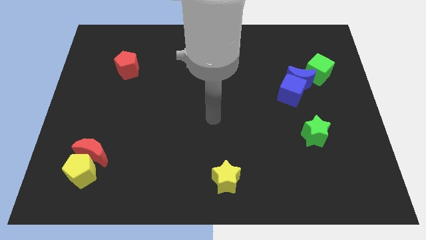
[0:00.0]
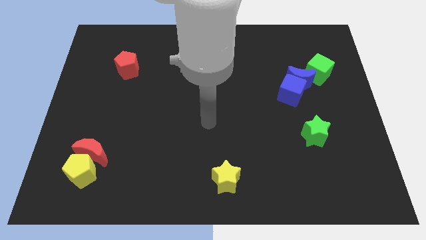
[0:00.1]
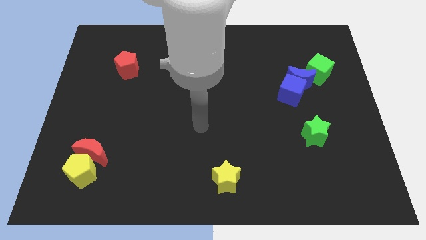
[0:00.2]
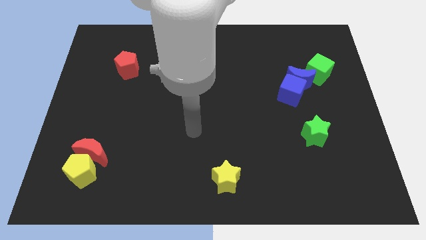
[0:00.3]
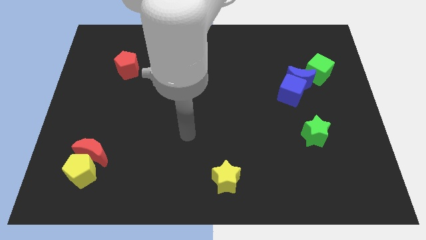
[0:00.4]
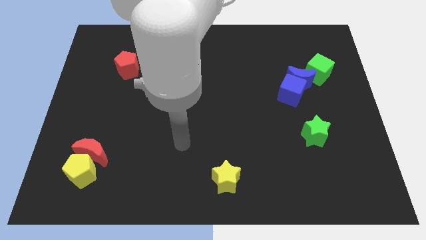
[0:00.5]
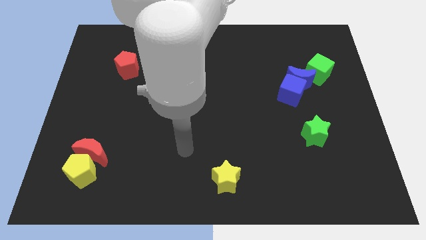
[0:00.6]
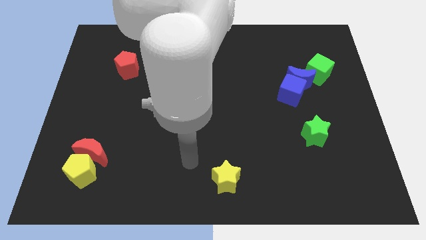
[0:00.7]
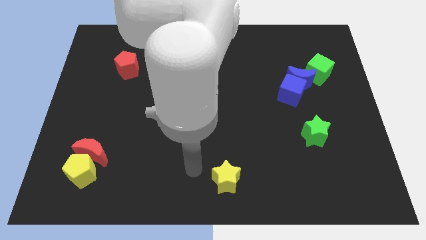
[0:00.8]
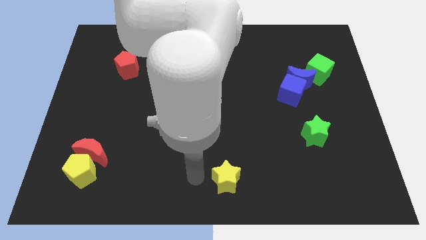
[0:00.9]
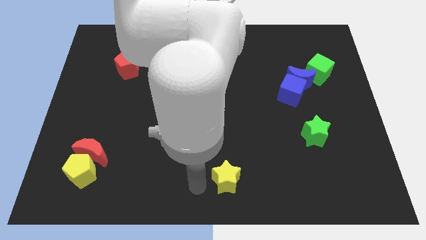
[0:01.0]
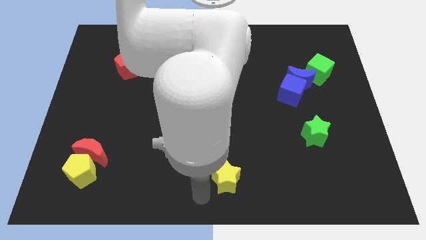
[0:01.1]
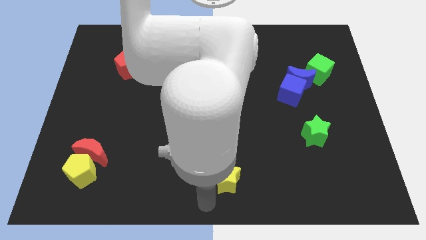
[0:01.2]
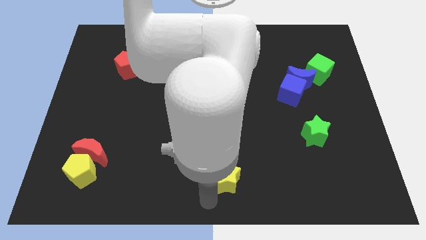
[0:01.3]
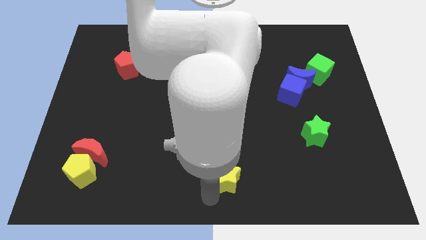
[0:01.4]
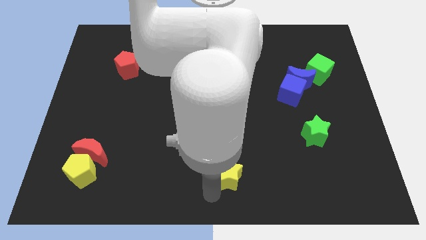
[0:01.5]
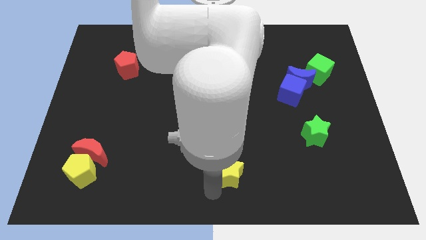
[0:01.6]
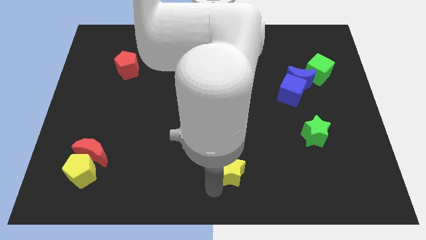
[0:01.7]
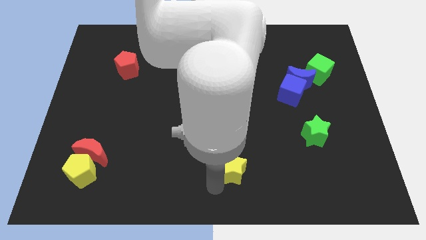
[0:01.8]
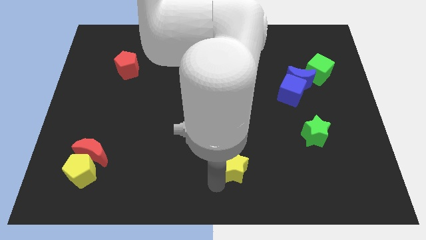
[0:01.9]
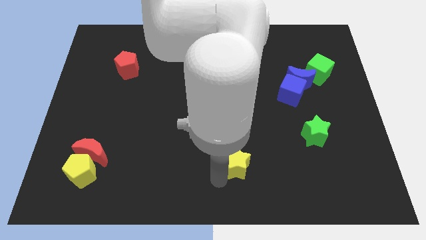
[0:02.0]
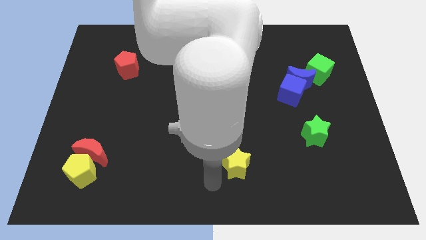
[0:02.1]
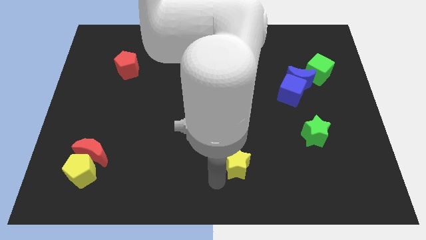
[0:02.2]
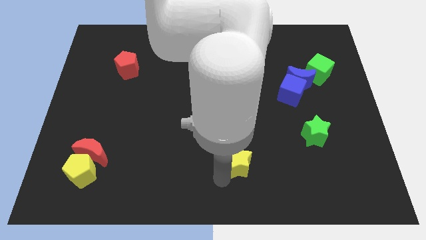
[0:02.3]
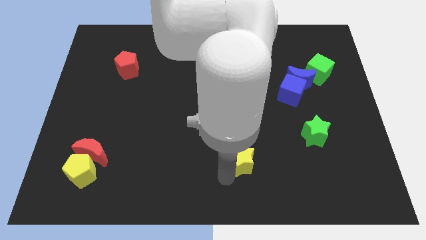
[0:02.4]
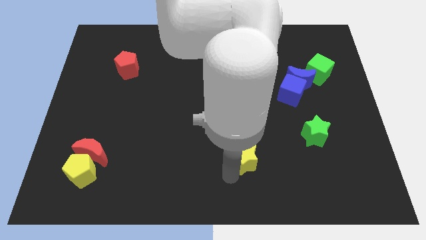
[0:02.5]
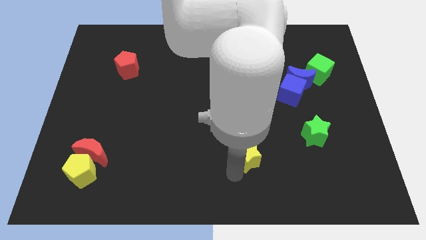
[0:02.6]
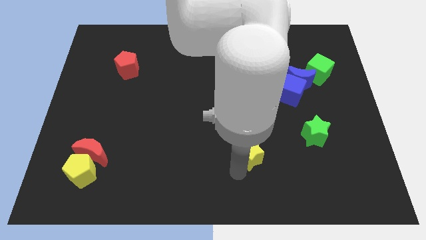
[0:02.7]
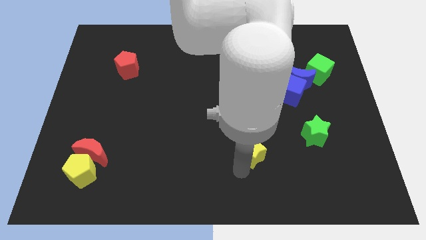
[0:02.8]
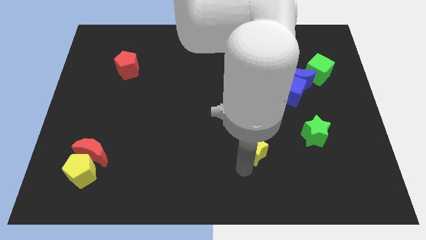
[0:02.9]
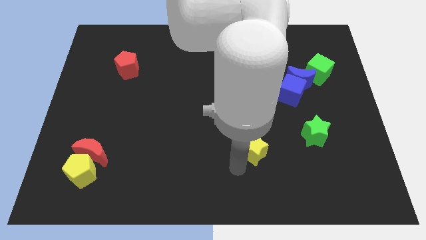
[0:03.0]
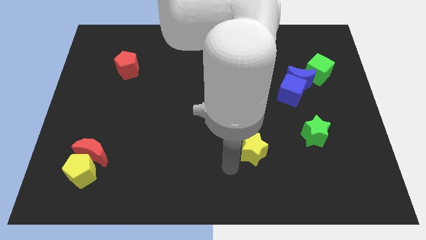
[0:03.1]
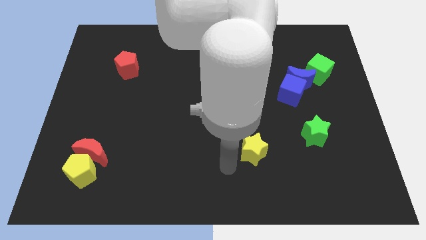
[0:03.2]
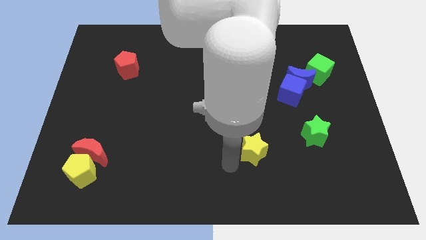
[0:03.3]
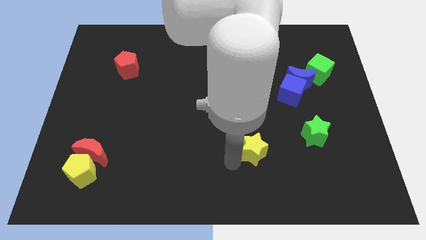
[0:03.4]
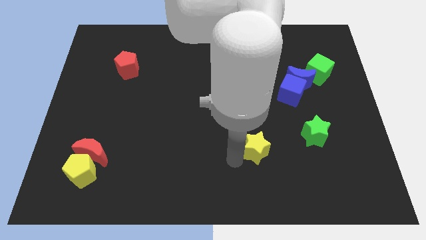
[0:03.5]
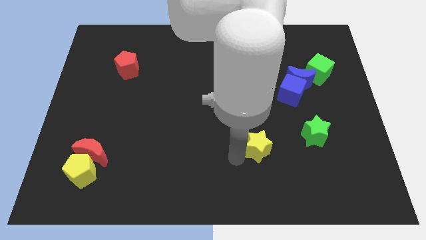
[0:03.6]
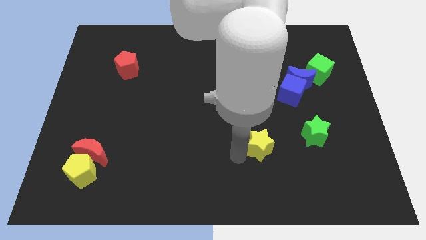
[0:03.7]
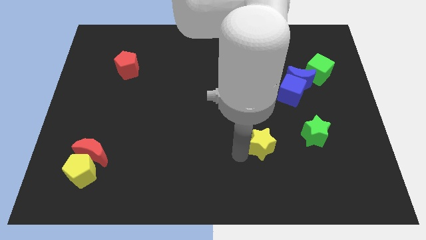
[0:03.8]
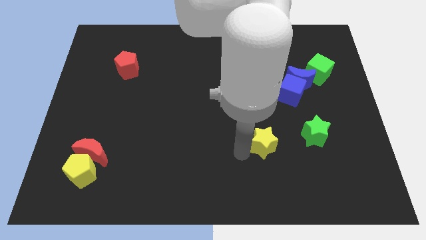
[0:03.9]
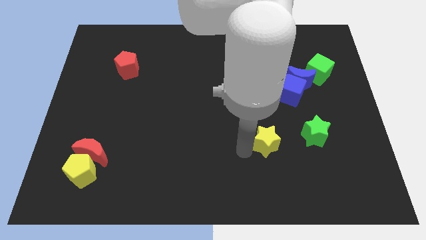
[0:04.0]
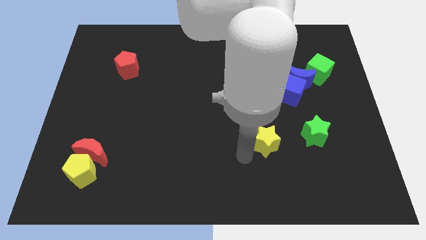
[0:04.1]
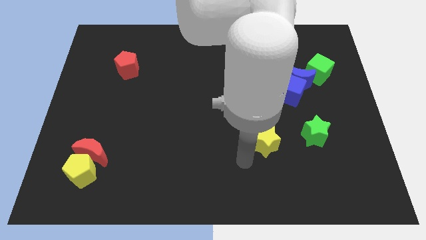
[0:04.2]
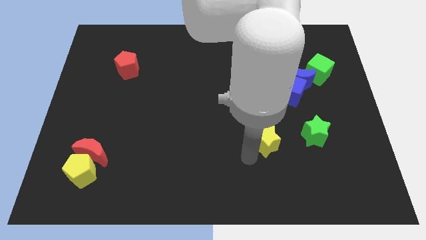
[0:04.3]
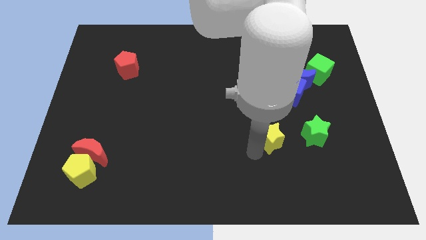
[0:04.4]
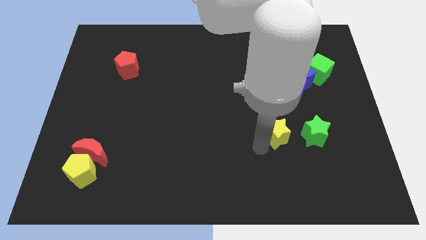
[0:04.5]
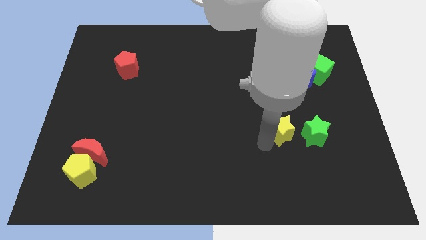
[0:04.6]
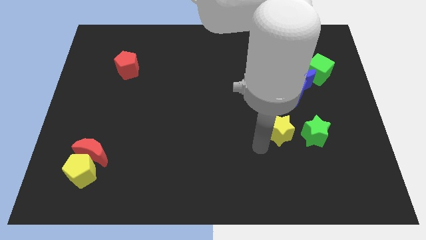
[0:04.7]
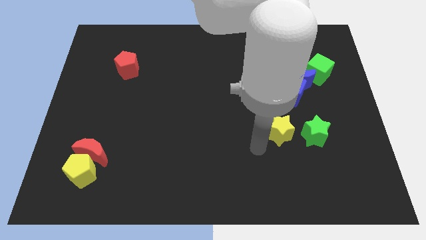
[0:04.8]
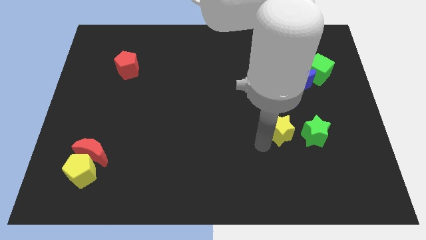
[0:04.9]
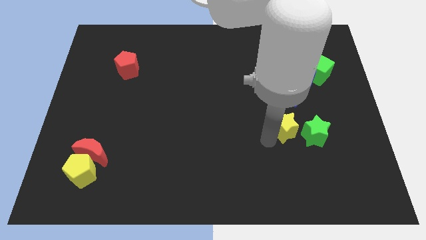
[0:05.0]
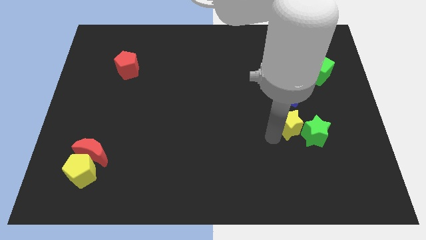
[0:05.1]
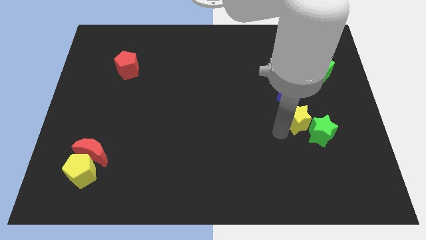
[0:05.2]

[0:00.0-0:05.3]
push the yellow star upwards and to the right diagonally

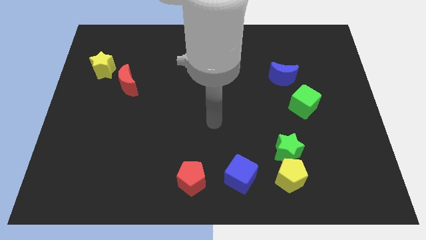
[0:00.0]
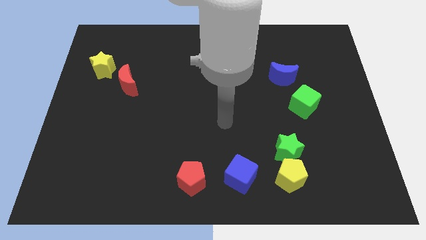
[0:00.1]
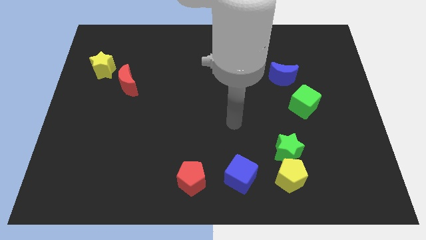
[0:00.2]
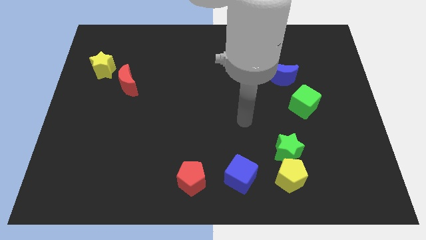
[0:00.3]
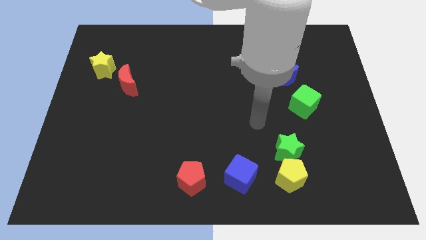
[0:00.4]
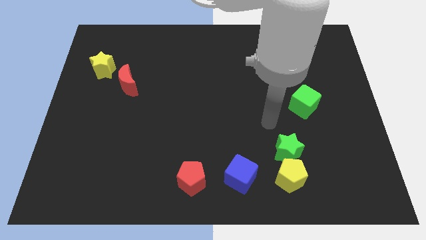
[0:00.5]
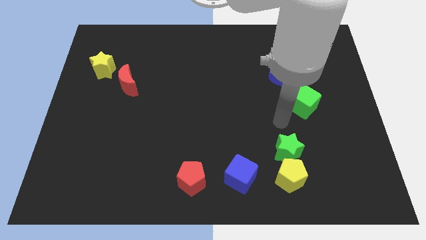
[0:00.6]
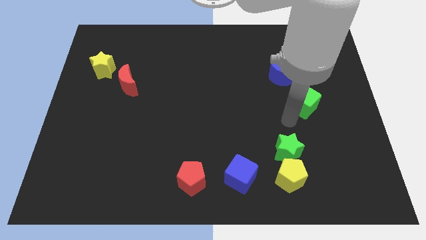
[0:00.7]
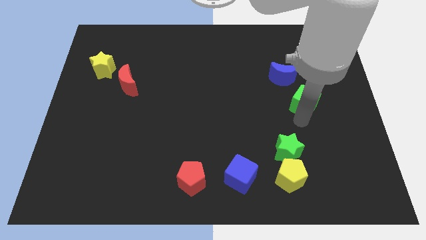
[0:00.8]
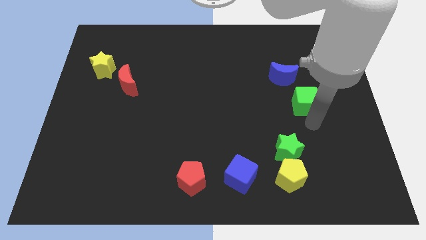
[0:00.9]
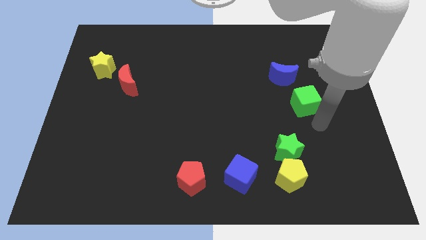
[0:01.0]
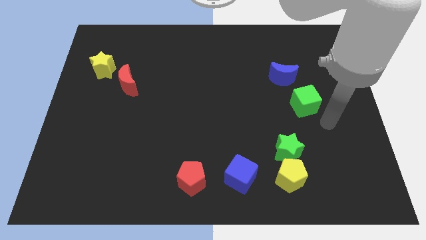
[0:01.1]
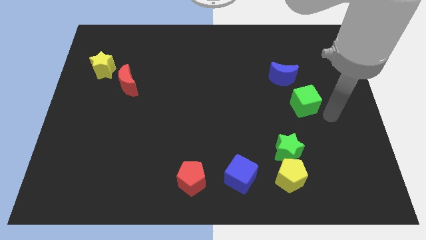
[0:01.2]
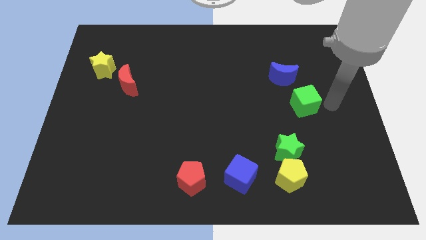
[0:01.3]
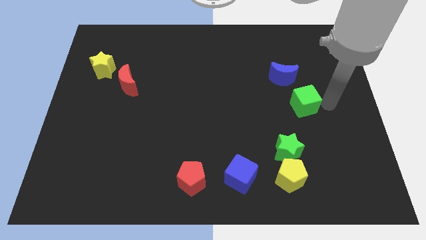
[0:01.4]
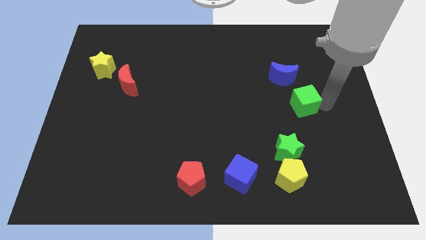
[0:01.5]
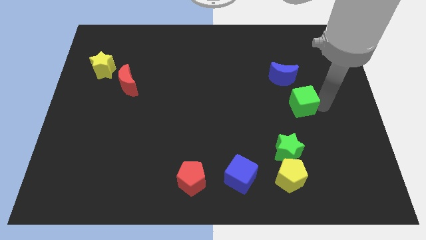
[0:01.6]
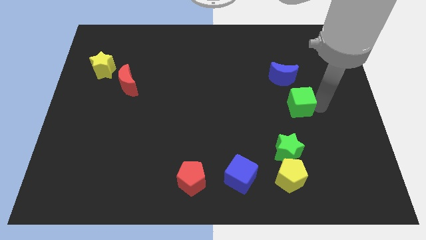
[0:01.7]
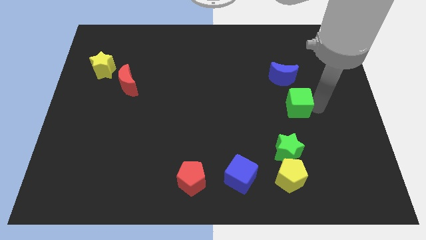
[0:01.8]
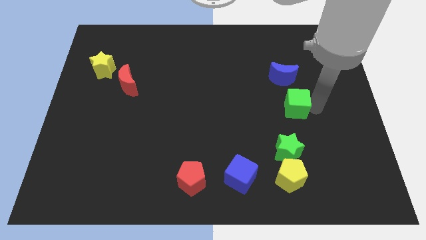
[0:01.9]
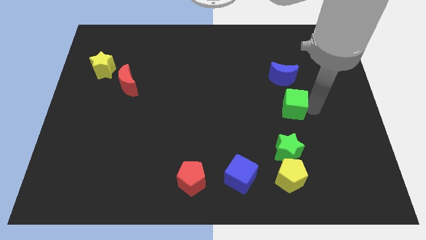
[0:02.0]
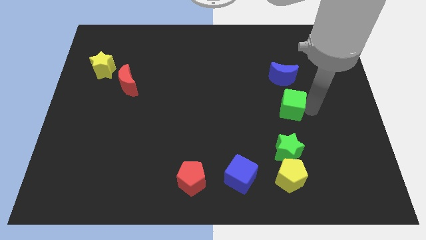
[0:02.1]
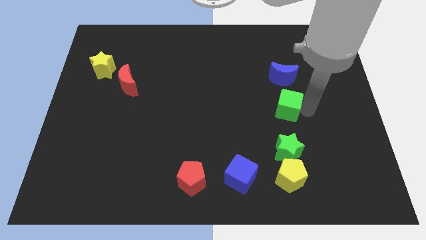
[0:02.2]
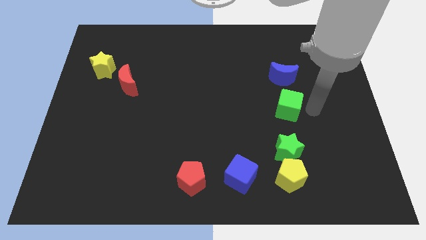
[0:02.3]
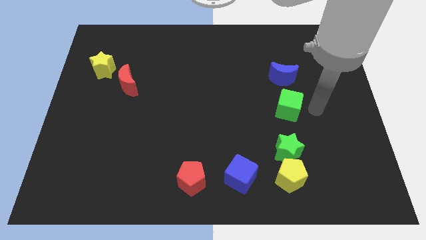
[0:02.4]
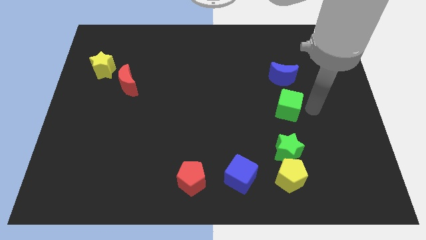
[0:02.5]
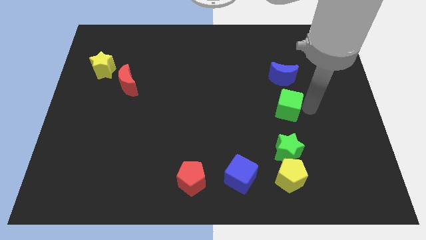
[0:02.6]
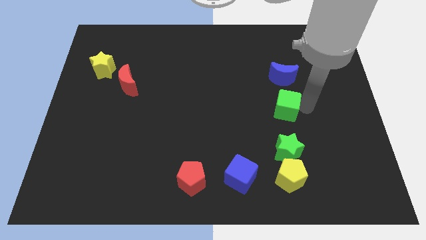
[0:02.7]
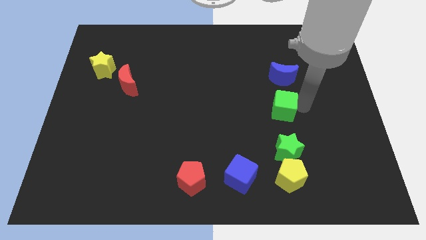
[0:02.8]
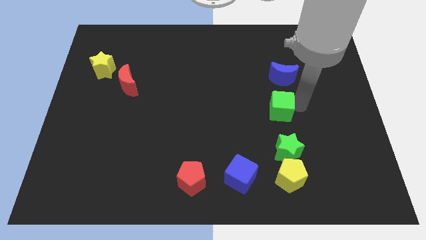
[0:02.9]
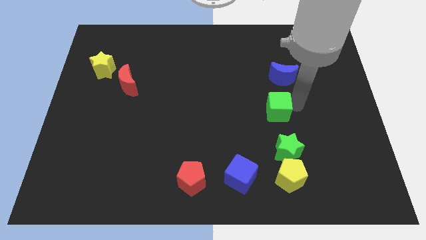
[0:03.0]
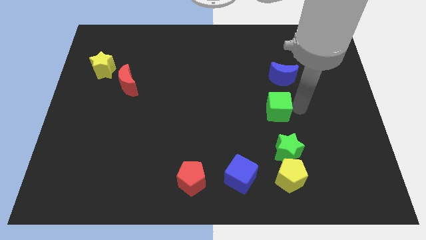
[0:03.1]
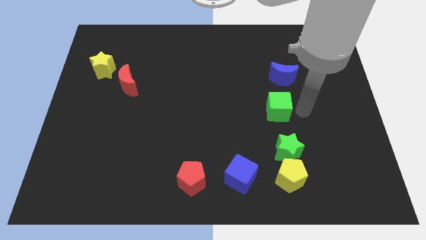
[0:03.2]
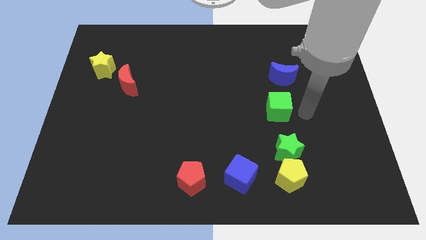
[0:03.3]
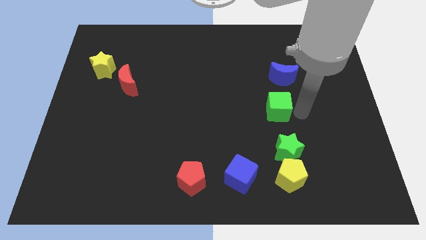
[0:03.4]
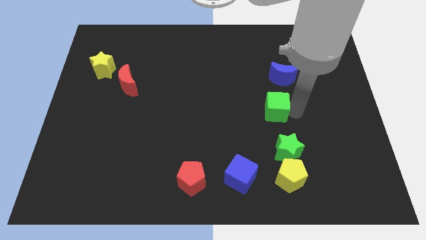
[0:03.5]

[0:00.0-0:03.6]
move the green cube a bit left
